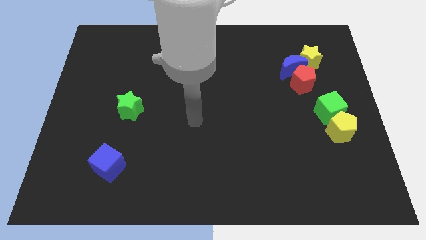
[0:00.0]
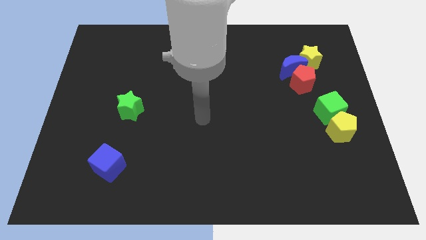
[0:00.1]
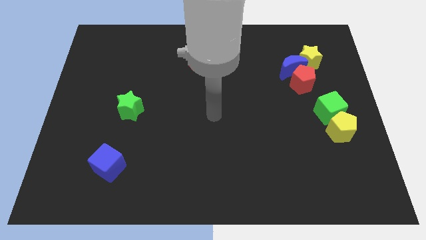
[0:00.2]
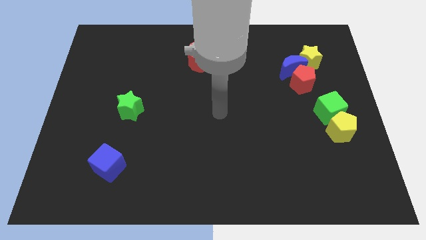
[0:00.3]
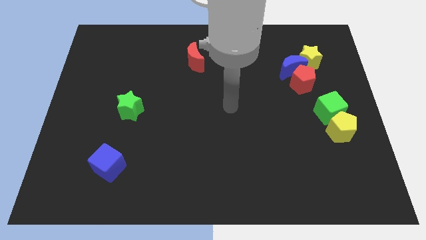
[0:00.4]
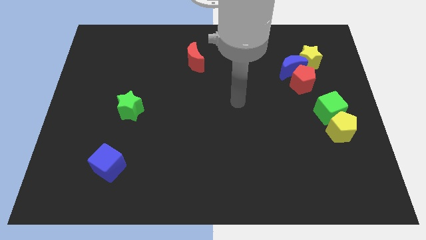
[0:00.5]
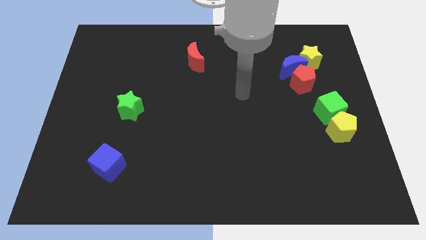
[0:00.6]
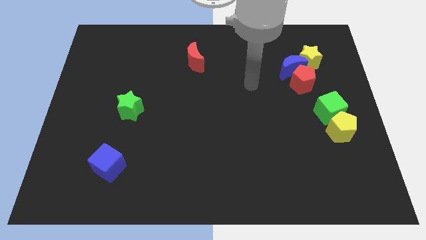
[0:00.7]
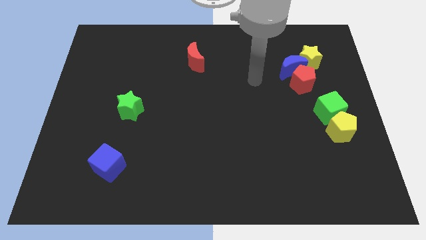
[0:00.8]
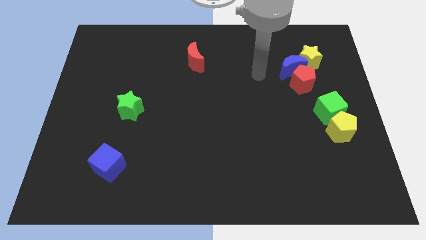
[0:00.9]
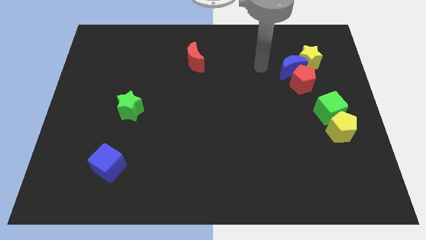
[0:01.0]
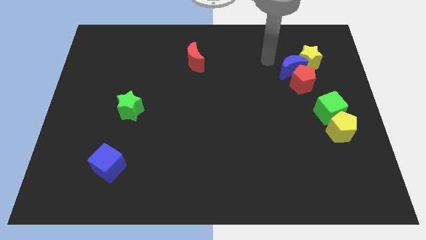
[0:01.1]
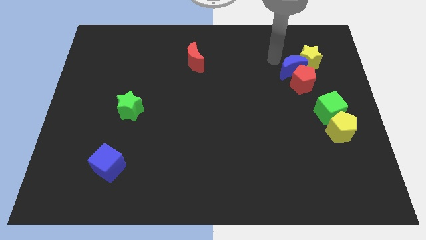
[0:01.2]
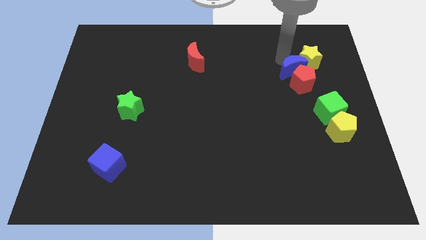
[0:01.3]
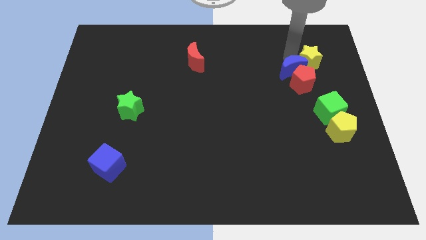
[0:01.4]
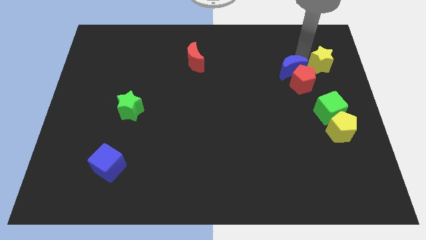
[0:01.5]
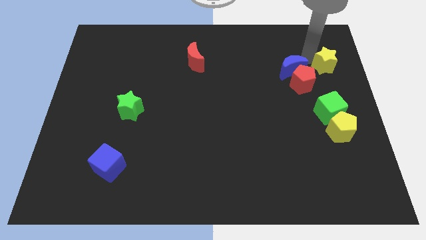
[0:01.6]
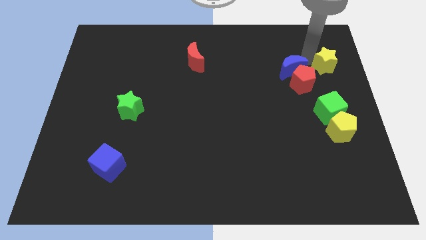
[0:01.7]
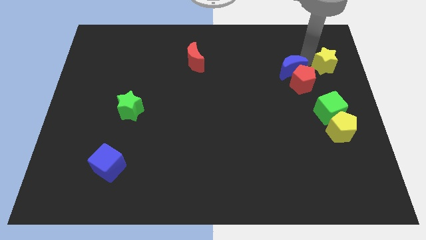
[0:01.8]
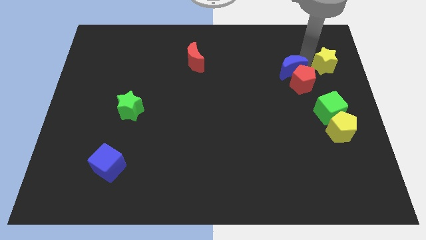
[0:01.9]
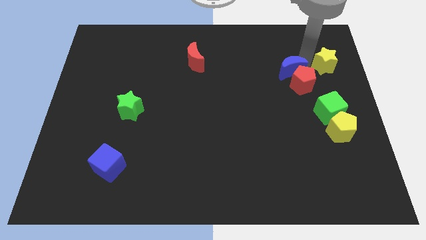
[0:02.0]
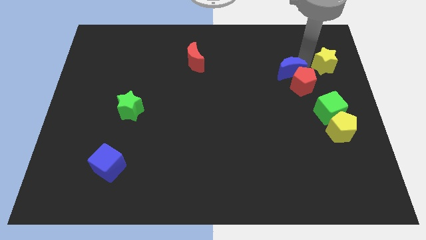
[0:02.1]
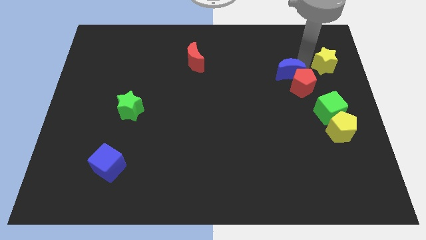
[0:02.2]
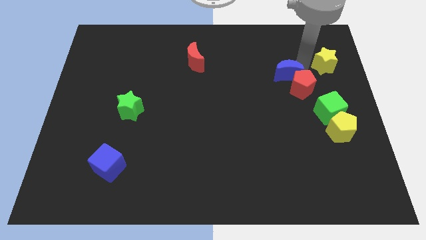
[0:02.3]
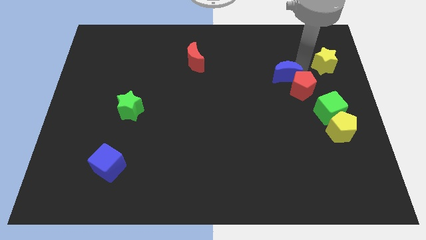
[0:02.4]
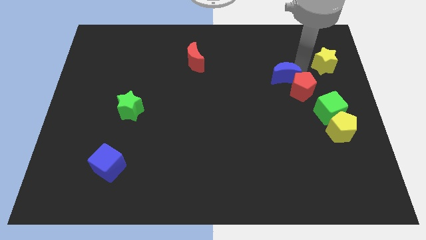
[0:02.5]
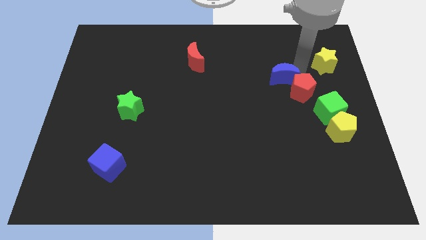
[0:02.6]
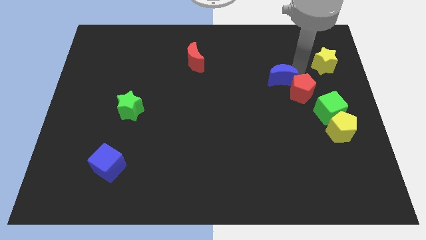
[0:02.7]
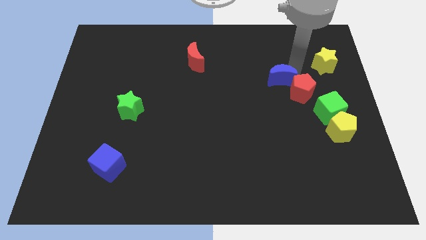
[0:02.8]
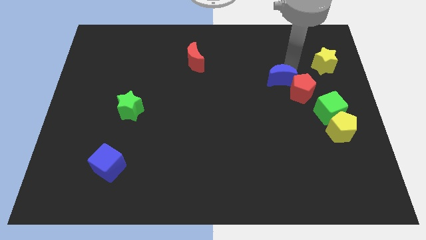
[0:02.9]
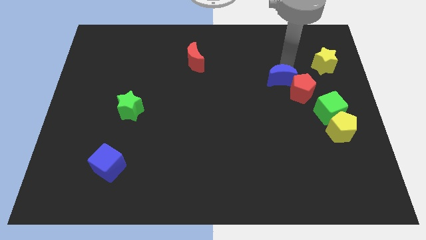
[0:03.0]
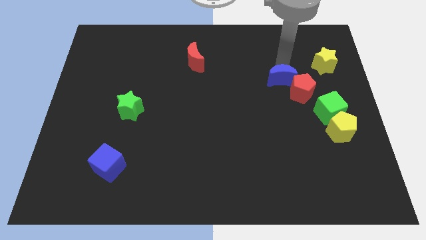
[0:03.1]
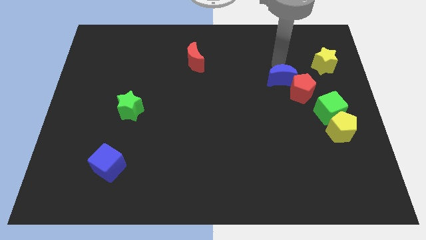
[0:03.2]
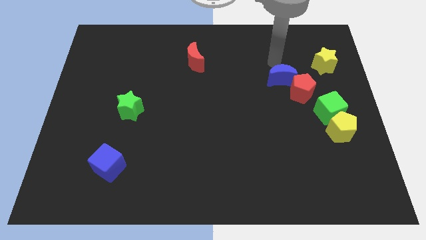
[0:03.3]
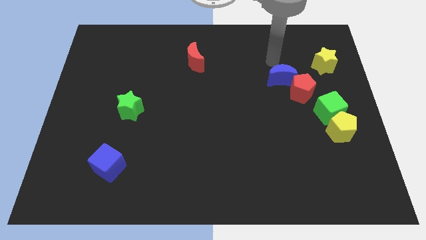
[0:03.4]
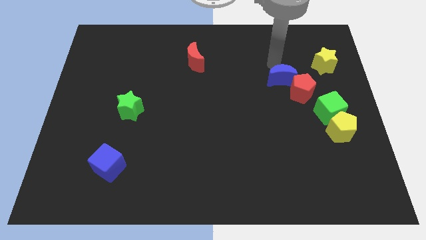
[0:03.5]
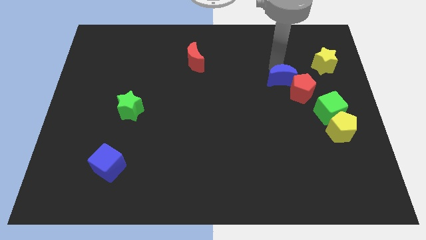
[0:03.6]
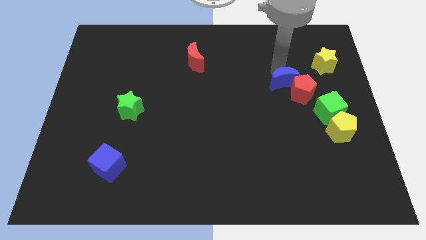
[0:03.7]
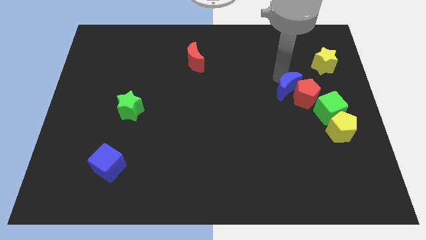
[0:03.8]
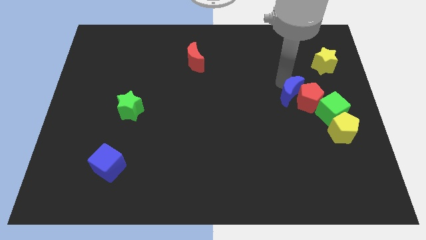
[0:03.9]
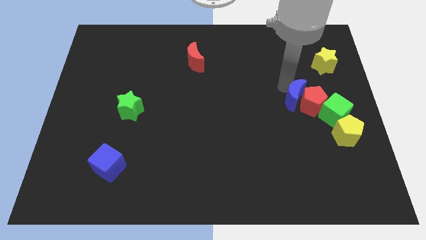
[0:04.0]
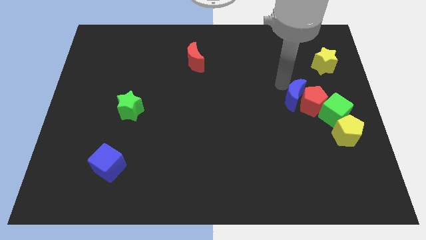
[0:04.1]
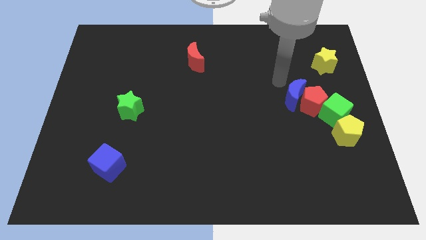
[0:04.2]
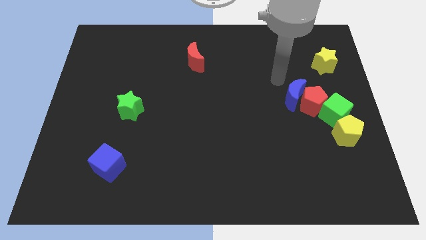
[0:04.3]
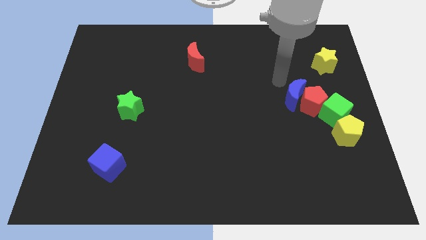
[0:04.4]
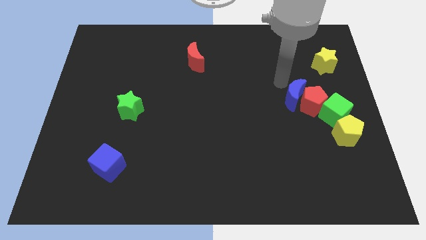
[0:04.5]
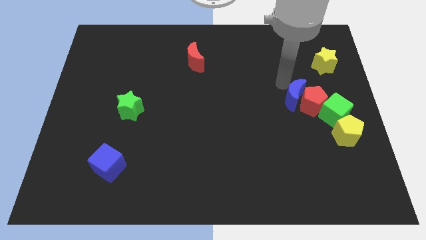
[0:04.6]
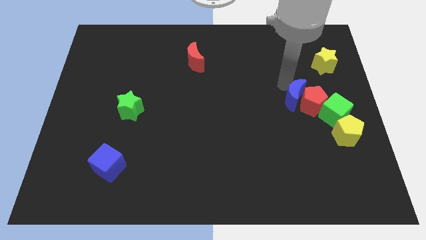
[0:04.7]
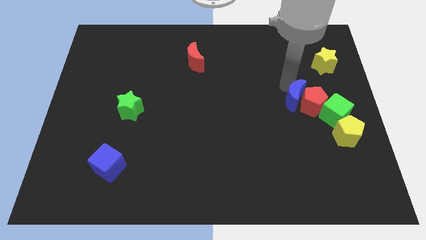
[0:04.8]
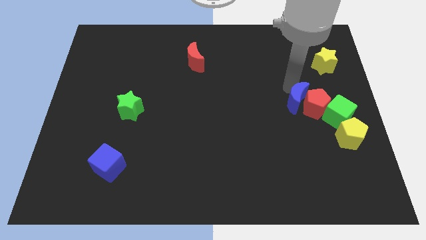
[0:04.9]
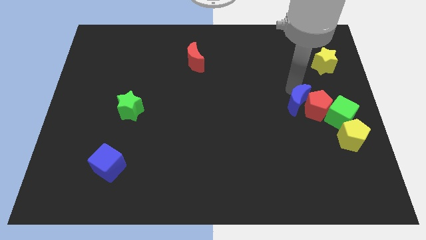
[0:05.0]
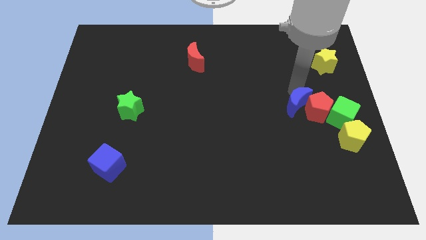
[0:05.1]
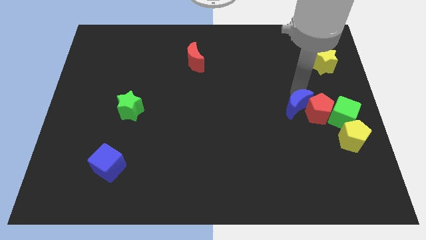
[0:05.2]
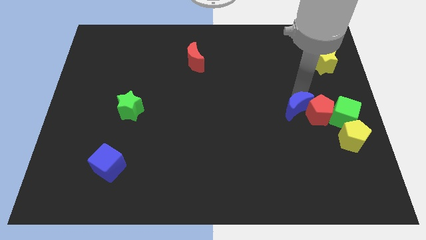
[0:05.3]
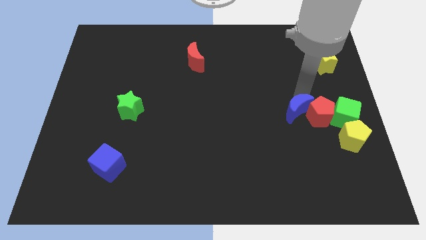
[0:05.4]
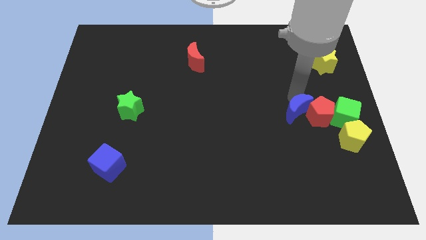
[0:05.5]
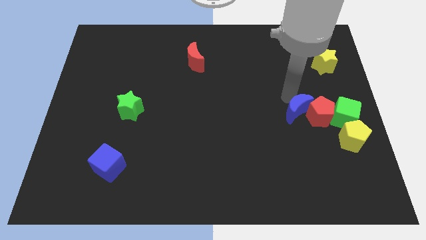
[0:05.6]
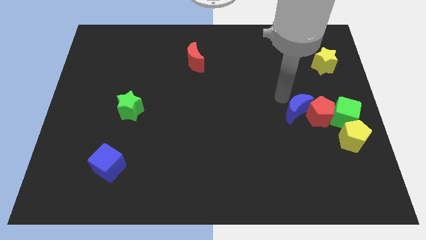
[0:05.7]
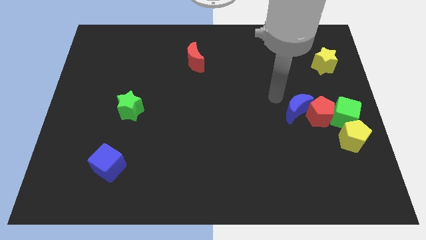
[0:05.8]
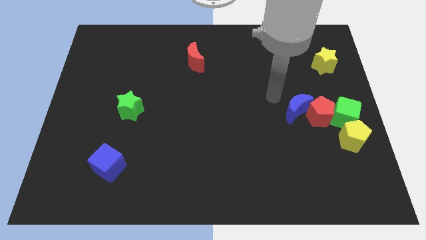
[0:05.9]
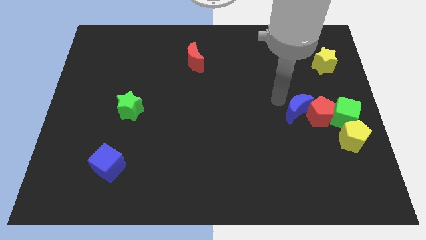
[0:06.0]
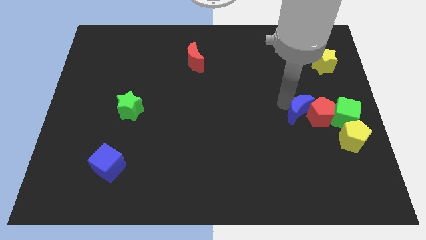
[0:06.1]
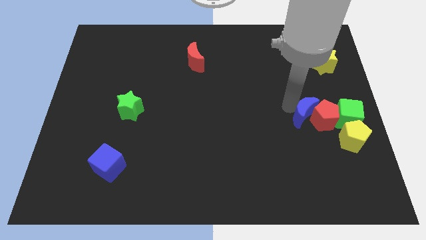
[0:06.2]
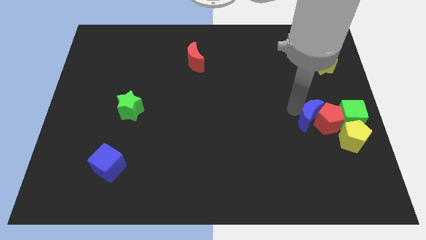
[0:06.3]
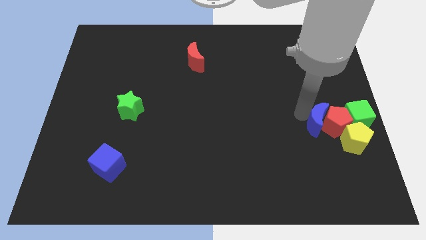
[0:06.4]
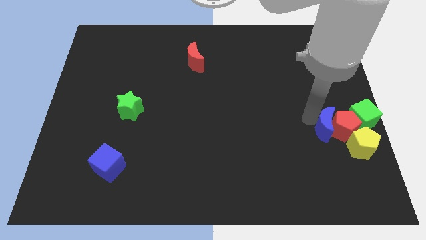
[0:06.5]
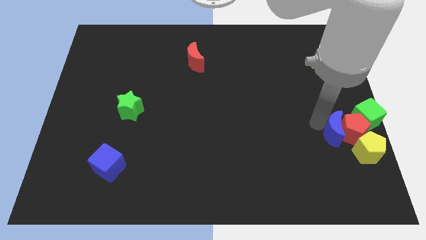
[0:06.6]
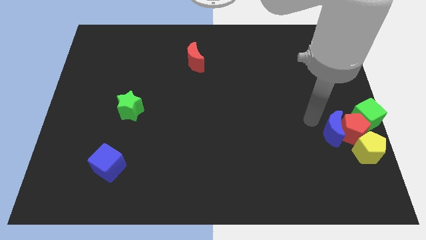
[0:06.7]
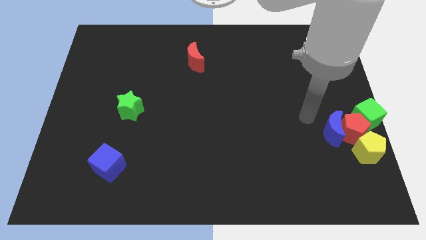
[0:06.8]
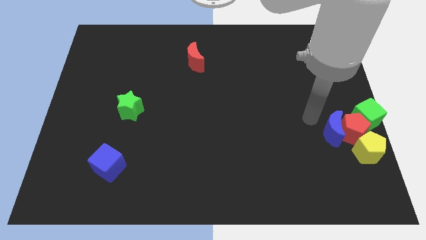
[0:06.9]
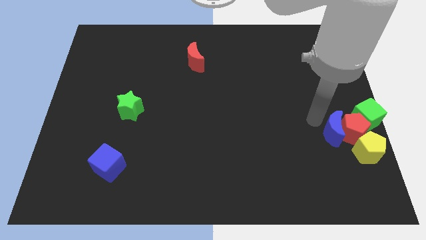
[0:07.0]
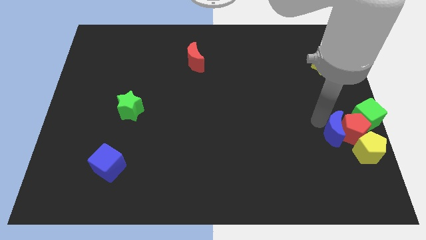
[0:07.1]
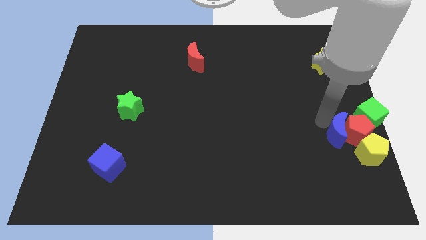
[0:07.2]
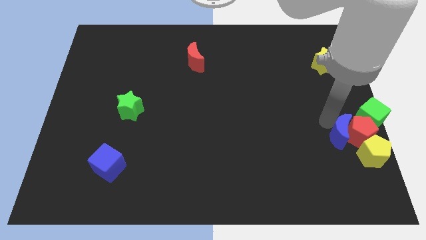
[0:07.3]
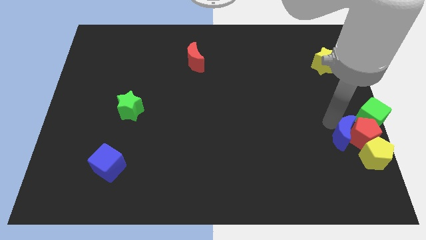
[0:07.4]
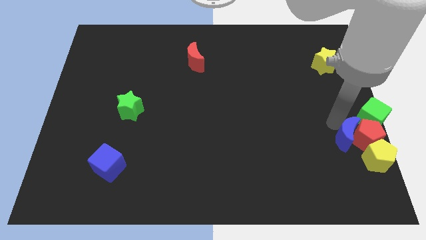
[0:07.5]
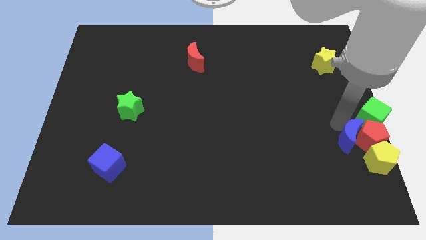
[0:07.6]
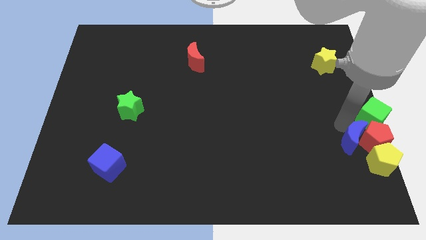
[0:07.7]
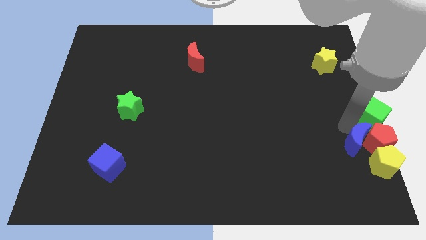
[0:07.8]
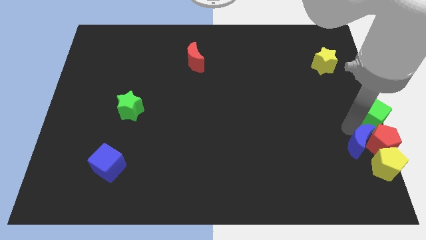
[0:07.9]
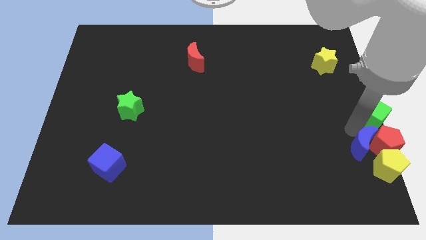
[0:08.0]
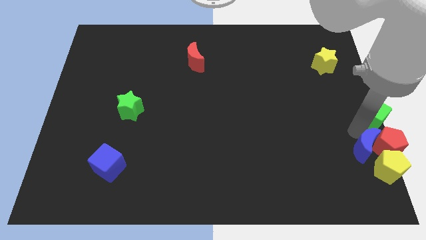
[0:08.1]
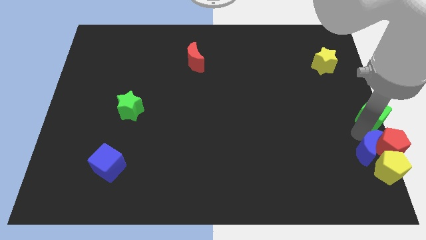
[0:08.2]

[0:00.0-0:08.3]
move the blue moon towards the yellow pentagon
